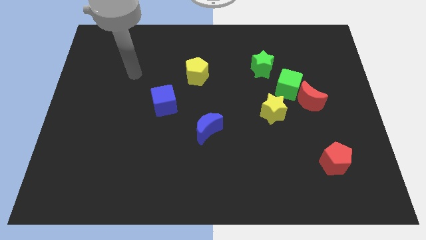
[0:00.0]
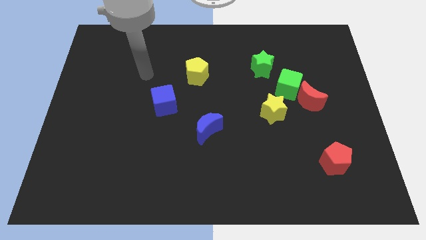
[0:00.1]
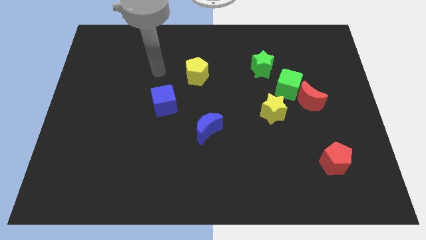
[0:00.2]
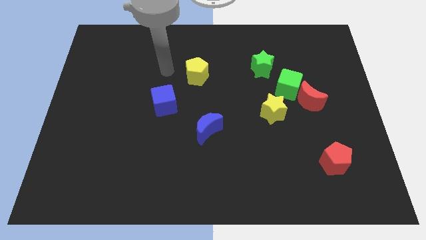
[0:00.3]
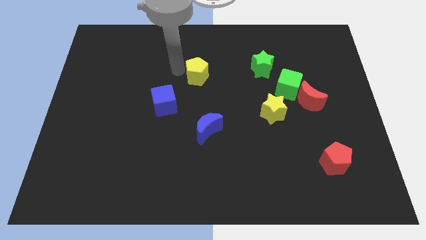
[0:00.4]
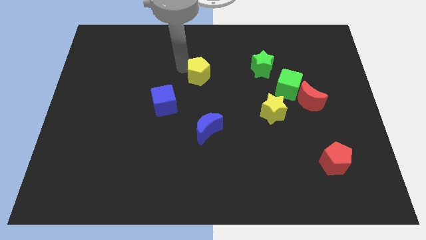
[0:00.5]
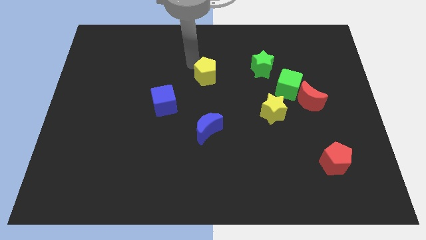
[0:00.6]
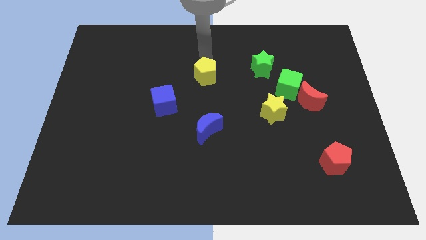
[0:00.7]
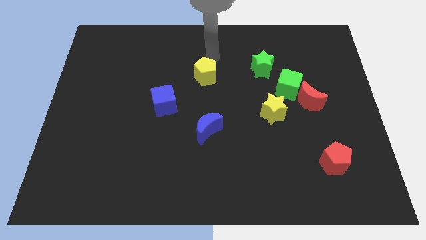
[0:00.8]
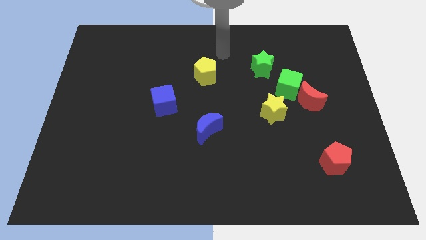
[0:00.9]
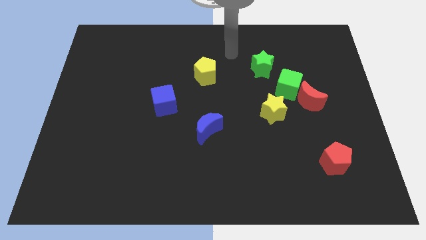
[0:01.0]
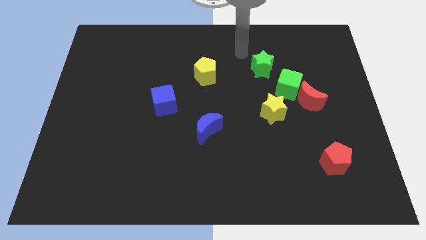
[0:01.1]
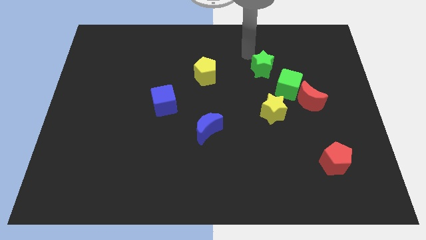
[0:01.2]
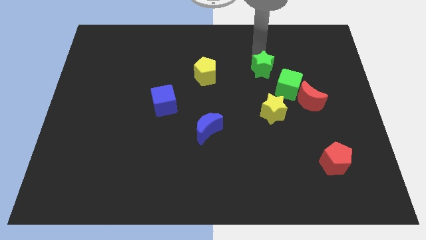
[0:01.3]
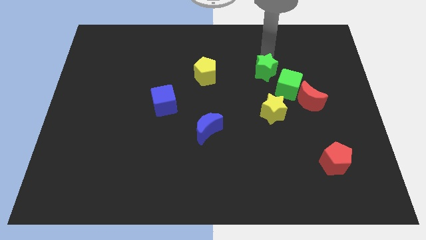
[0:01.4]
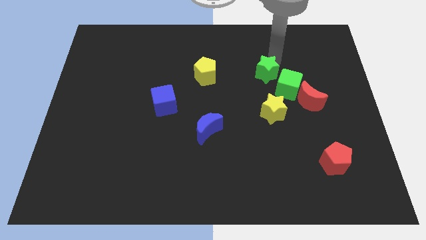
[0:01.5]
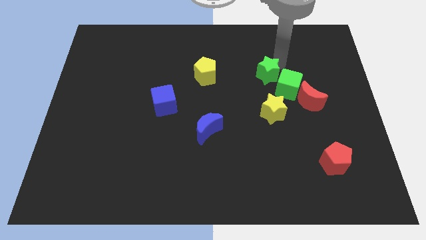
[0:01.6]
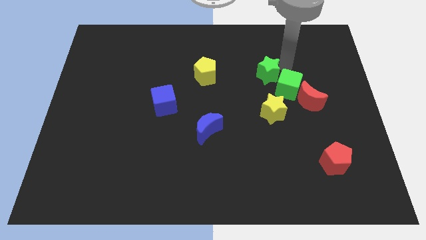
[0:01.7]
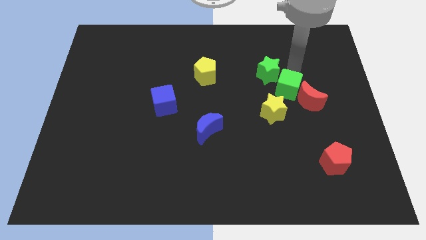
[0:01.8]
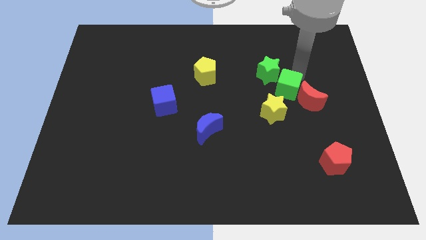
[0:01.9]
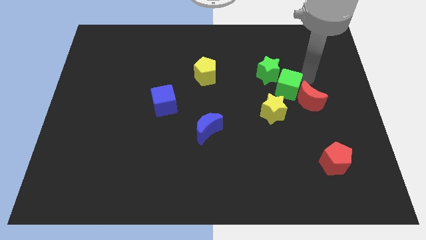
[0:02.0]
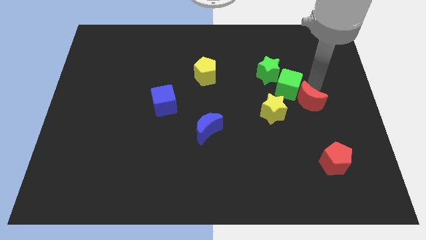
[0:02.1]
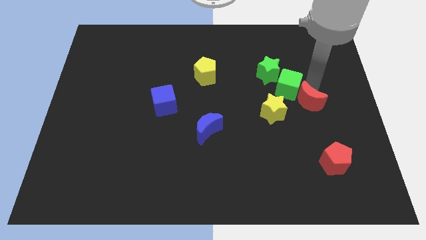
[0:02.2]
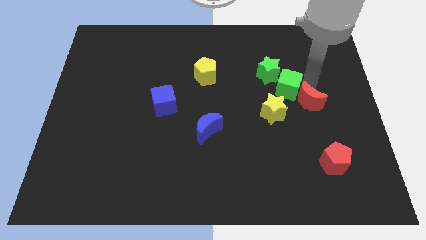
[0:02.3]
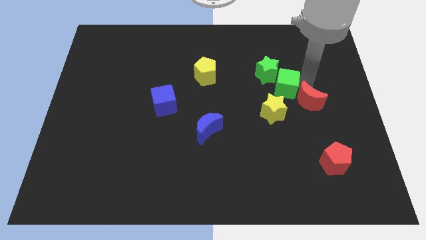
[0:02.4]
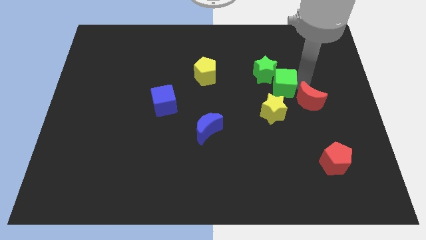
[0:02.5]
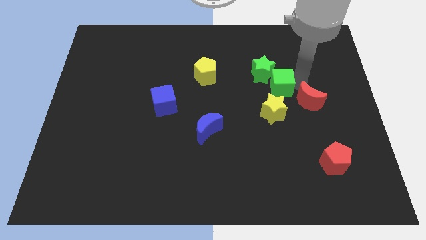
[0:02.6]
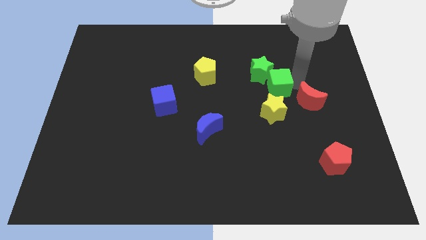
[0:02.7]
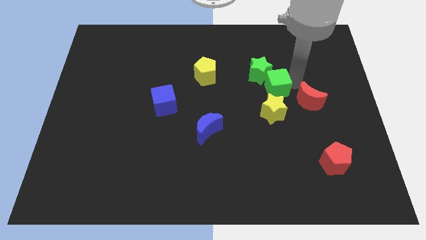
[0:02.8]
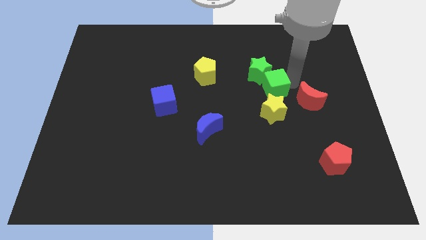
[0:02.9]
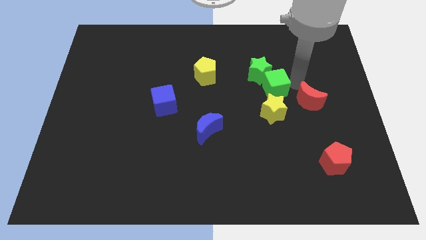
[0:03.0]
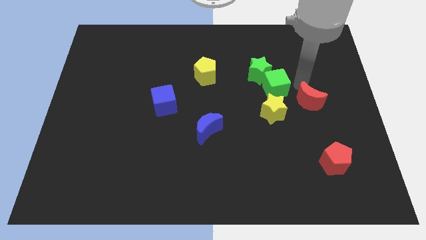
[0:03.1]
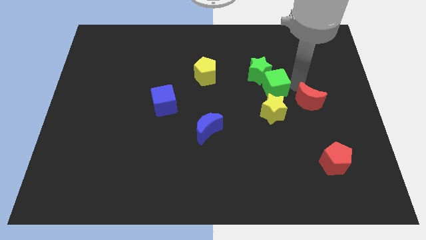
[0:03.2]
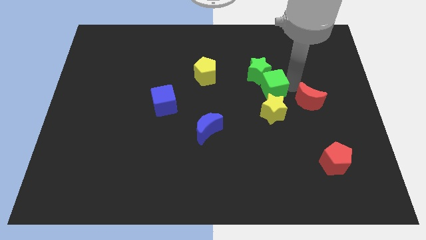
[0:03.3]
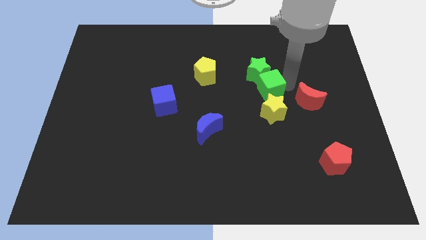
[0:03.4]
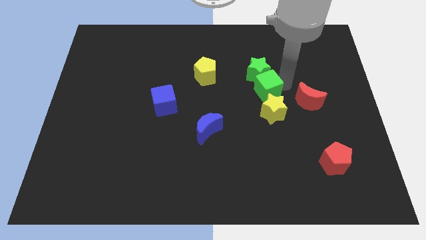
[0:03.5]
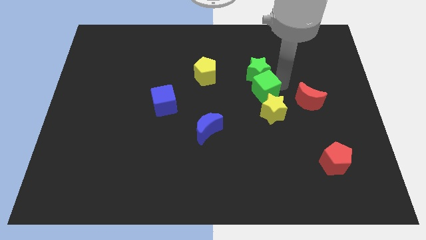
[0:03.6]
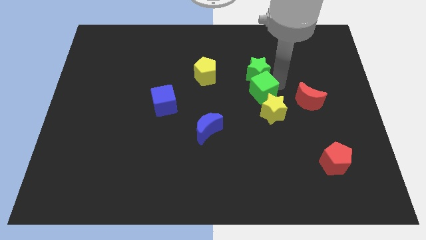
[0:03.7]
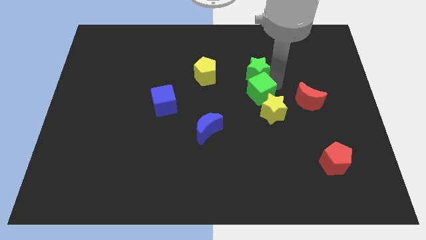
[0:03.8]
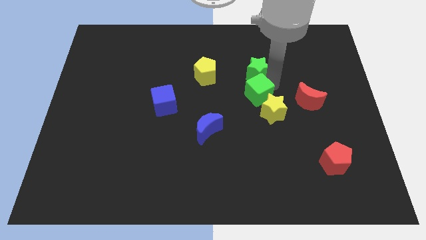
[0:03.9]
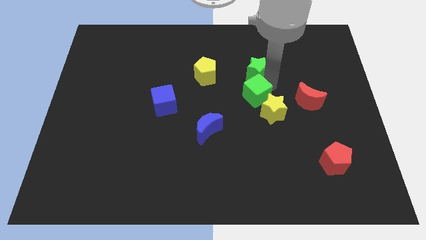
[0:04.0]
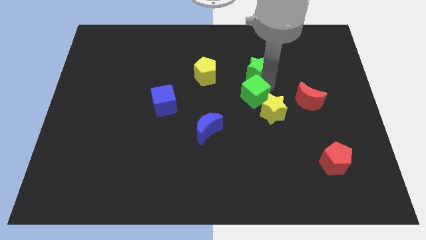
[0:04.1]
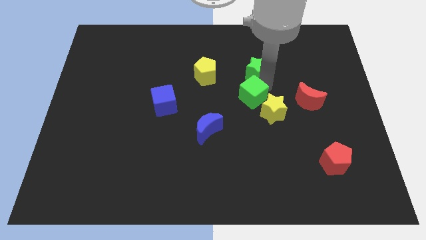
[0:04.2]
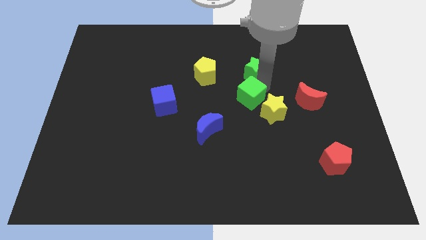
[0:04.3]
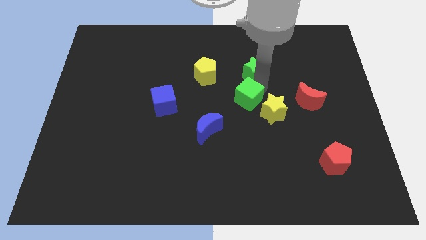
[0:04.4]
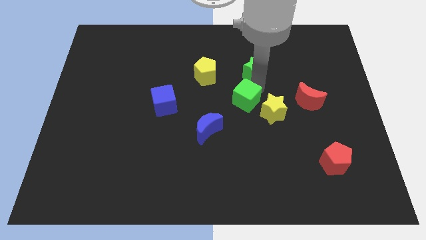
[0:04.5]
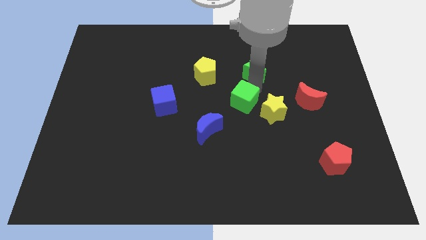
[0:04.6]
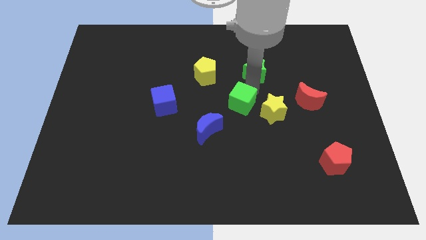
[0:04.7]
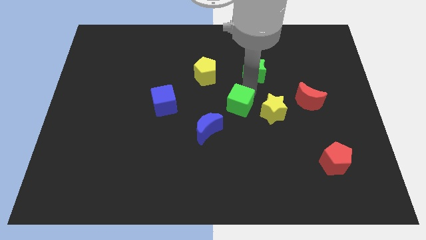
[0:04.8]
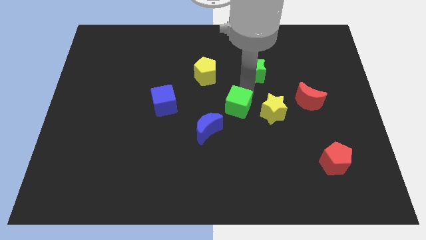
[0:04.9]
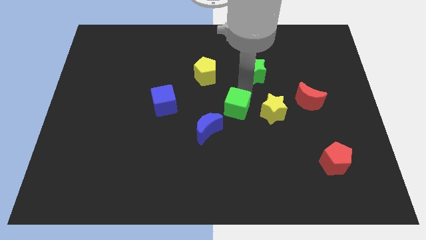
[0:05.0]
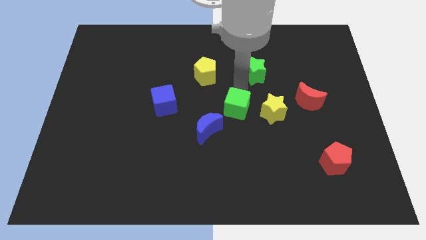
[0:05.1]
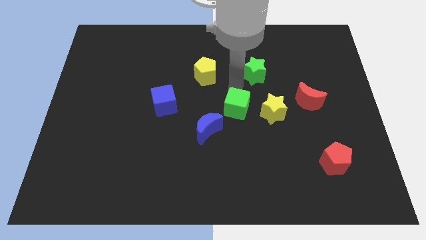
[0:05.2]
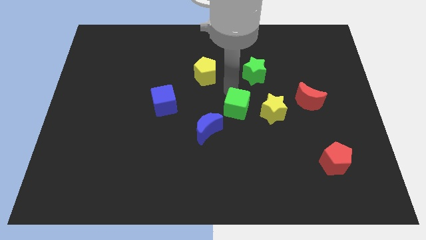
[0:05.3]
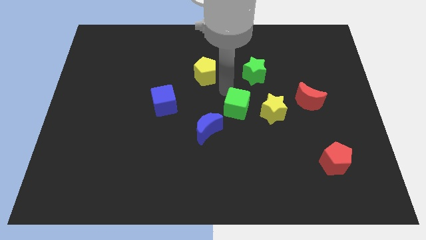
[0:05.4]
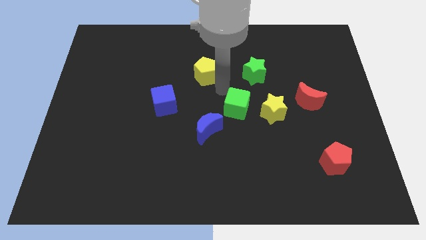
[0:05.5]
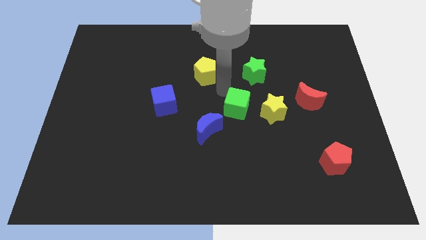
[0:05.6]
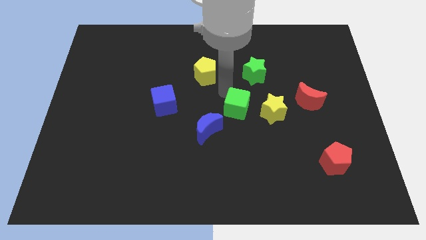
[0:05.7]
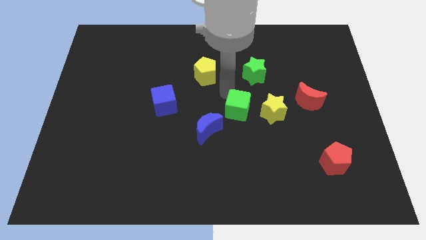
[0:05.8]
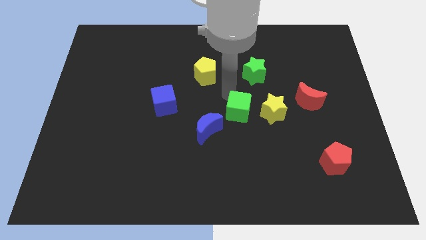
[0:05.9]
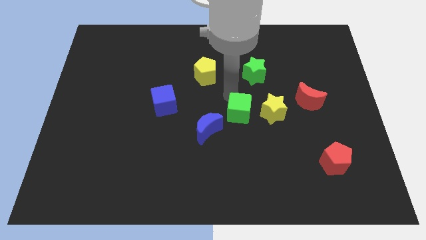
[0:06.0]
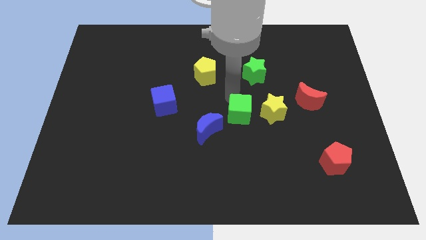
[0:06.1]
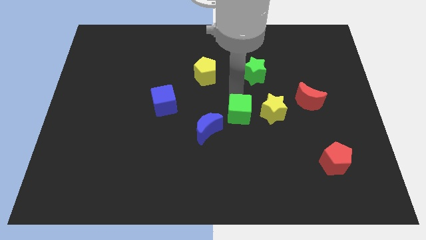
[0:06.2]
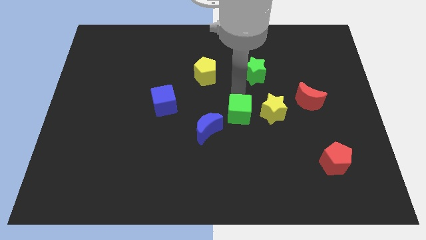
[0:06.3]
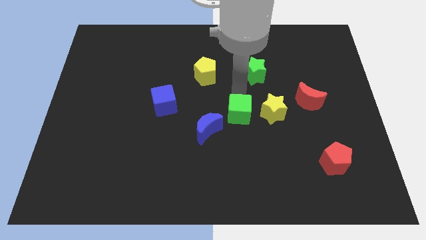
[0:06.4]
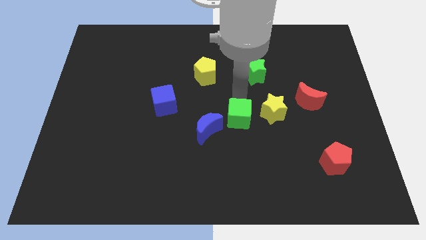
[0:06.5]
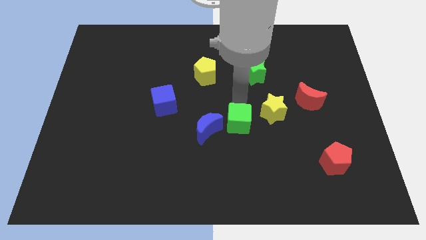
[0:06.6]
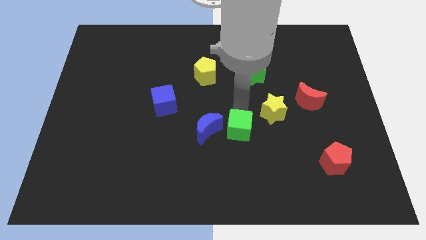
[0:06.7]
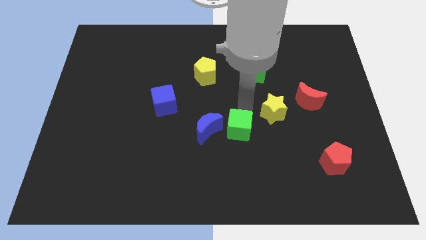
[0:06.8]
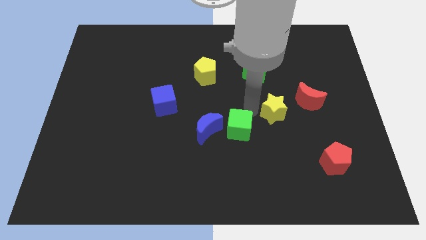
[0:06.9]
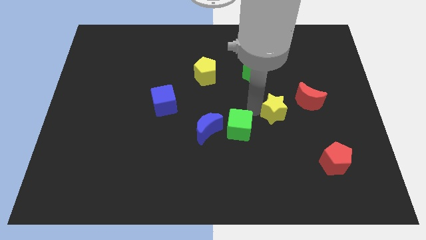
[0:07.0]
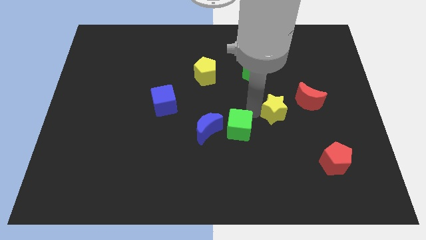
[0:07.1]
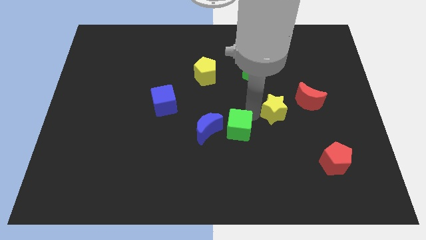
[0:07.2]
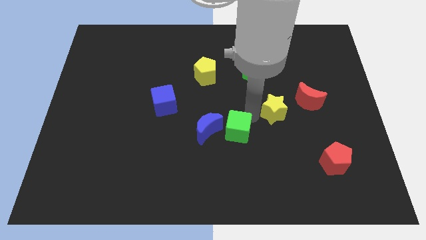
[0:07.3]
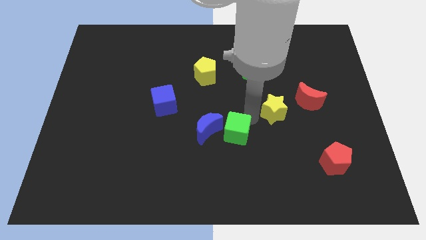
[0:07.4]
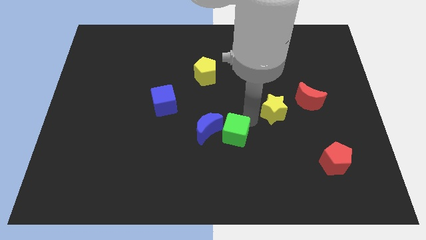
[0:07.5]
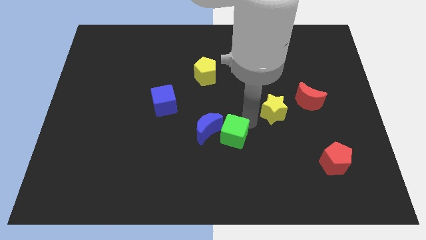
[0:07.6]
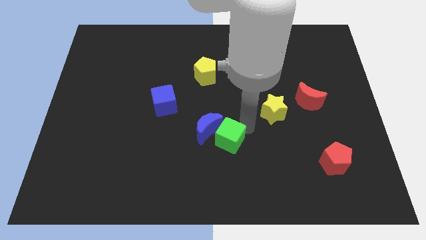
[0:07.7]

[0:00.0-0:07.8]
move the green cube downwards and left

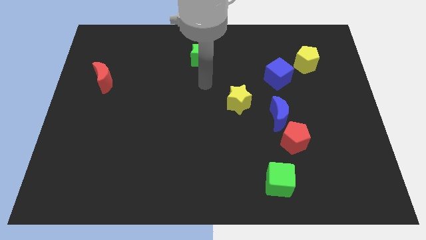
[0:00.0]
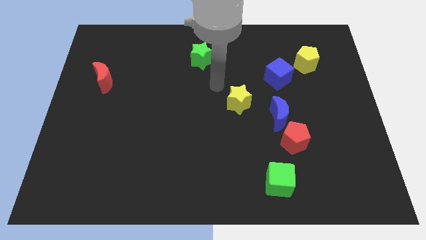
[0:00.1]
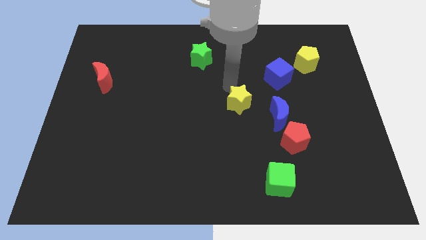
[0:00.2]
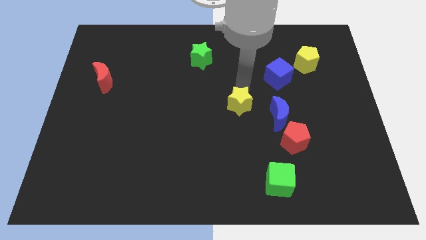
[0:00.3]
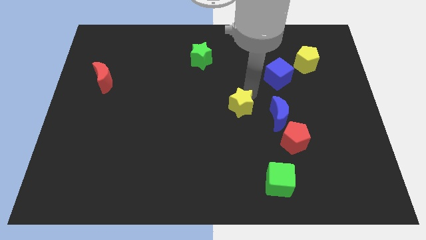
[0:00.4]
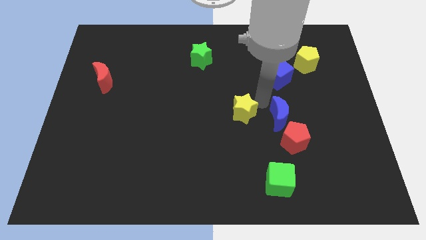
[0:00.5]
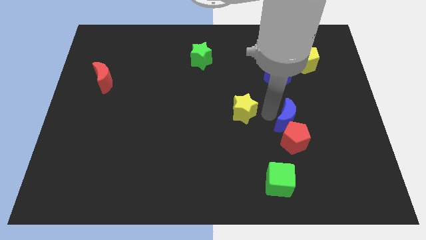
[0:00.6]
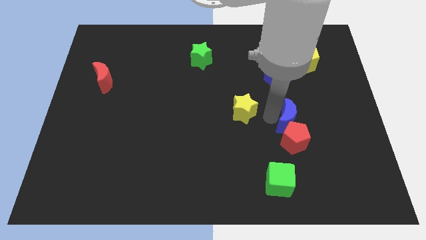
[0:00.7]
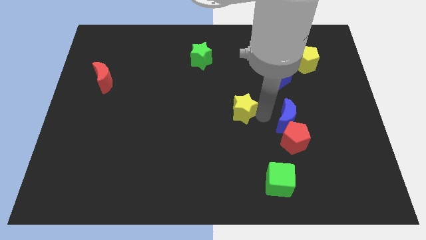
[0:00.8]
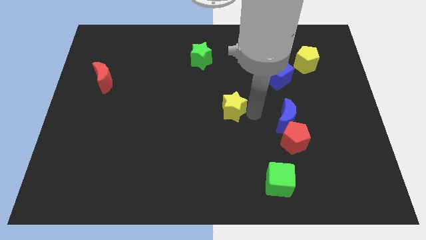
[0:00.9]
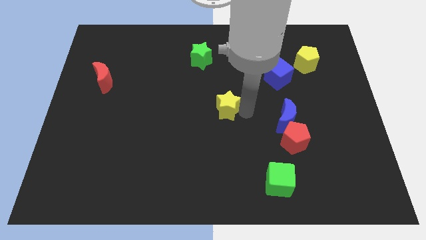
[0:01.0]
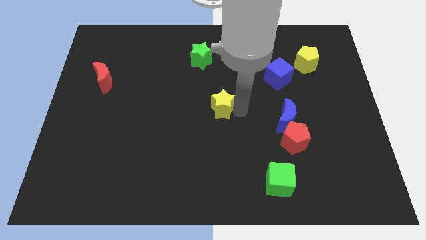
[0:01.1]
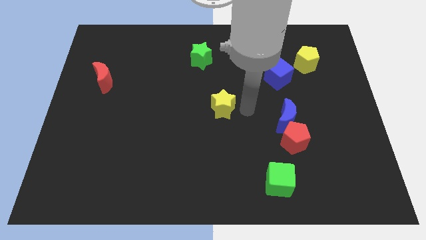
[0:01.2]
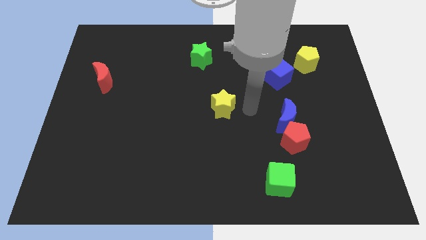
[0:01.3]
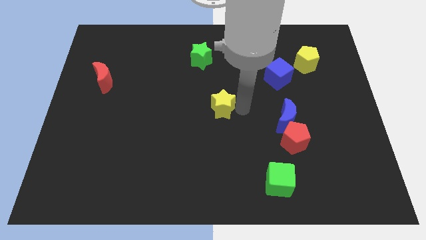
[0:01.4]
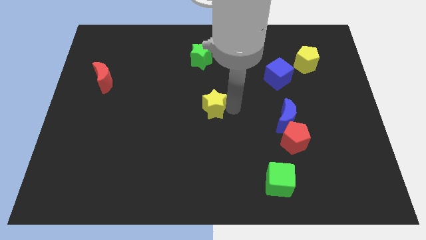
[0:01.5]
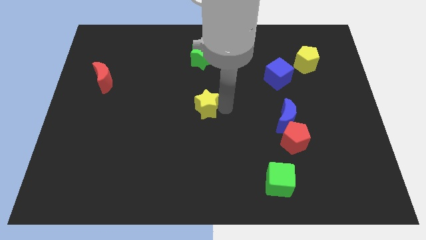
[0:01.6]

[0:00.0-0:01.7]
slightly push the yellow star to the left
